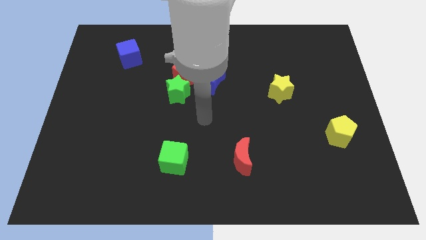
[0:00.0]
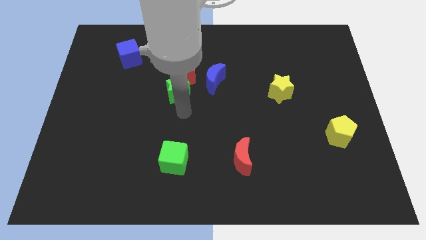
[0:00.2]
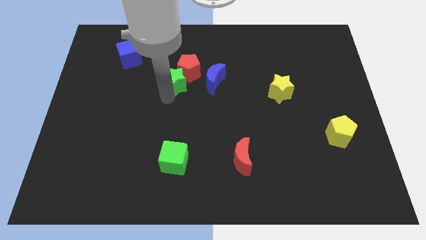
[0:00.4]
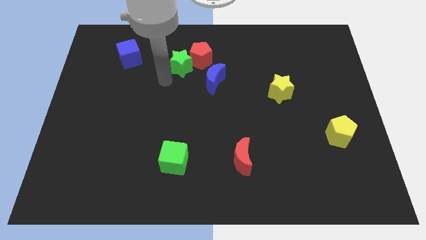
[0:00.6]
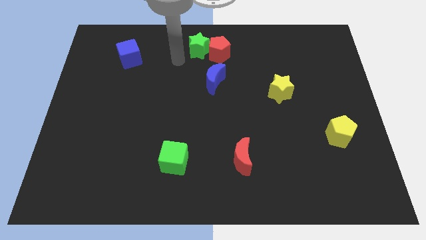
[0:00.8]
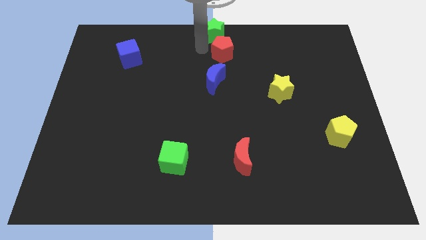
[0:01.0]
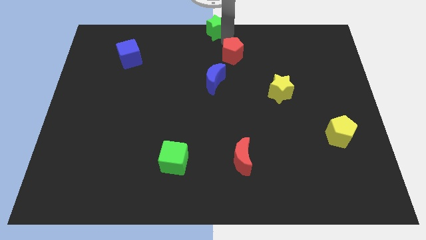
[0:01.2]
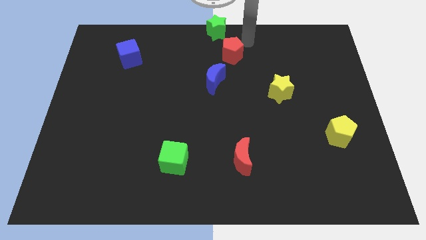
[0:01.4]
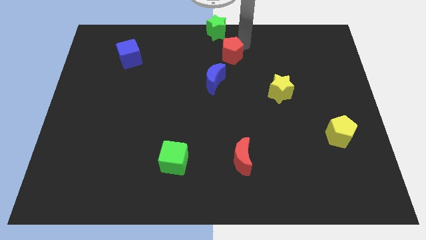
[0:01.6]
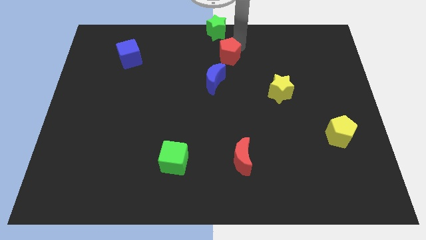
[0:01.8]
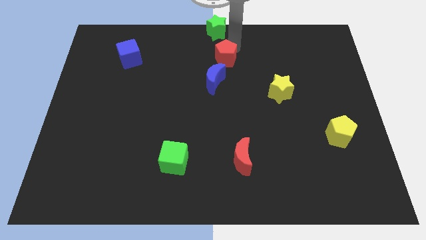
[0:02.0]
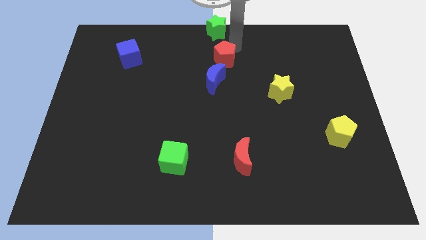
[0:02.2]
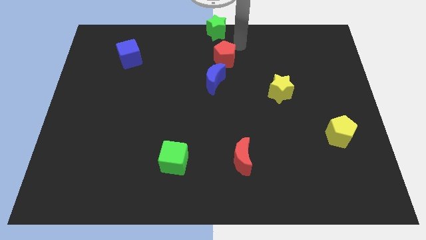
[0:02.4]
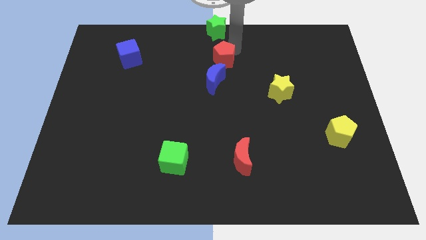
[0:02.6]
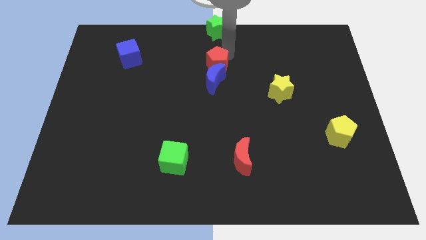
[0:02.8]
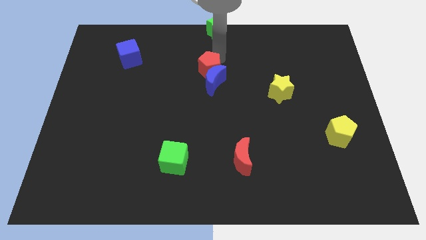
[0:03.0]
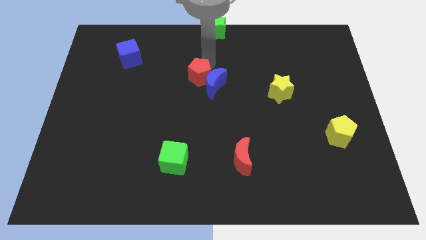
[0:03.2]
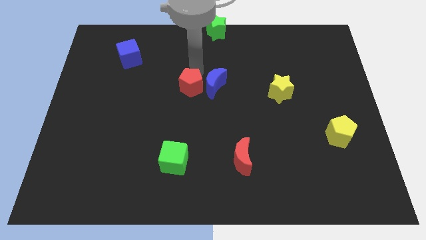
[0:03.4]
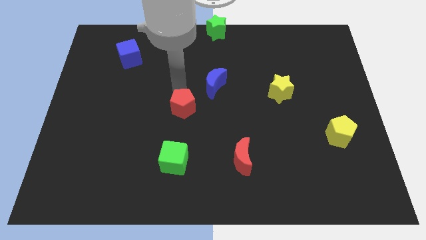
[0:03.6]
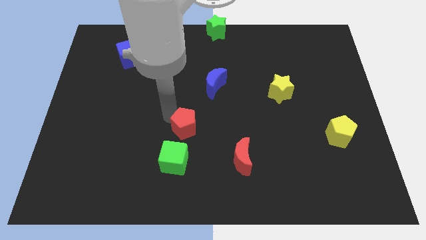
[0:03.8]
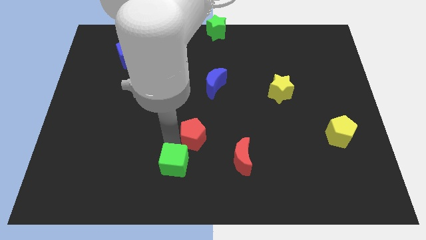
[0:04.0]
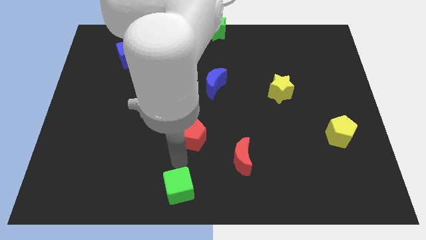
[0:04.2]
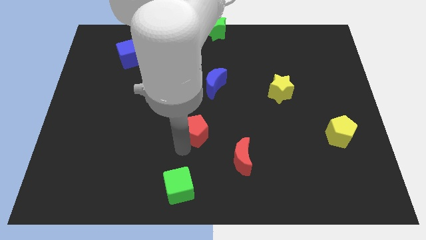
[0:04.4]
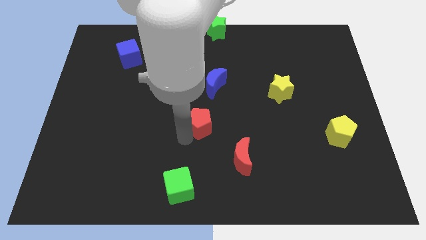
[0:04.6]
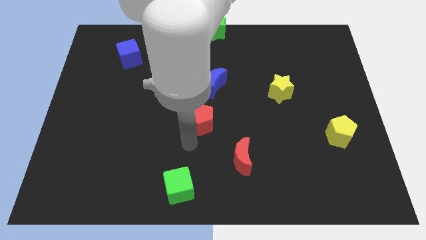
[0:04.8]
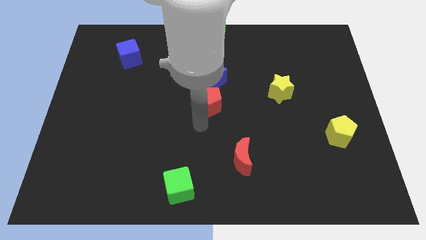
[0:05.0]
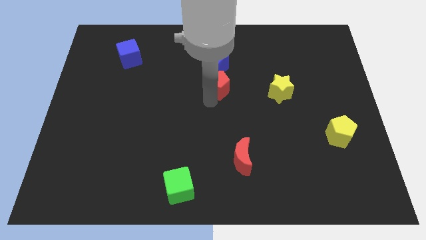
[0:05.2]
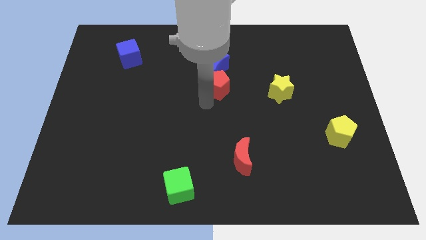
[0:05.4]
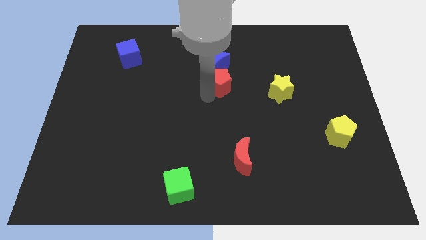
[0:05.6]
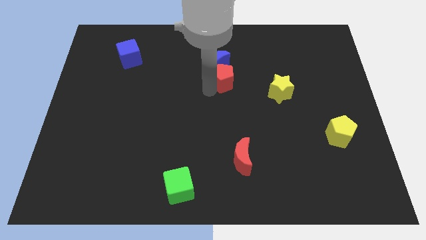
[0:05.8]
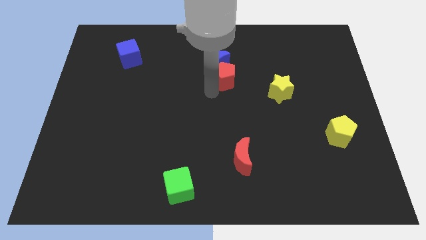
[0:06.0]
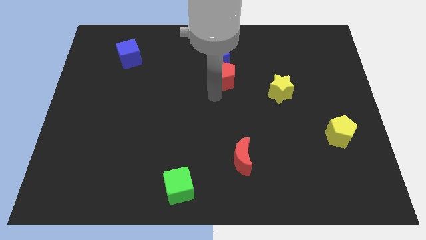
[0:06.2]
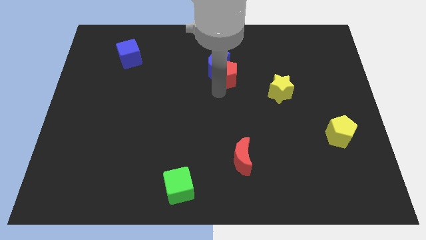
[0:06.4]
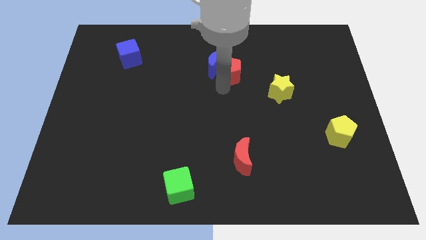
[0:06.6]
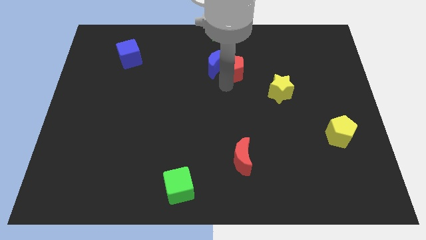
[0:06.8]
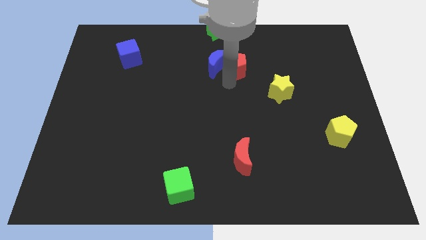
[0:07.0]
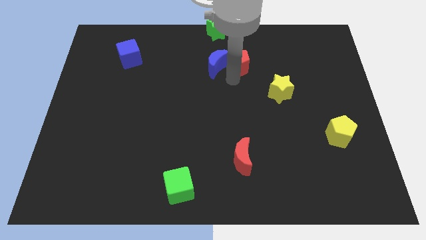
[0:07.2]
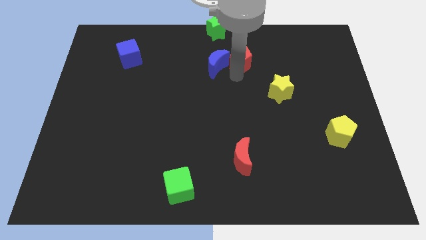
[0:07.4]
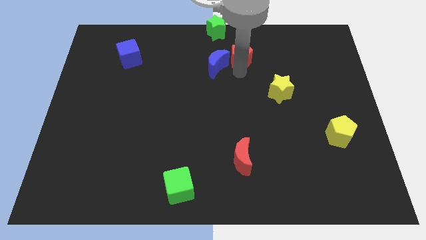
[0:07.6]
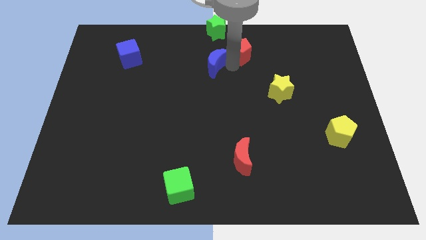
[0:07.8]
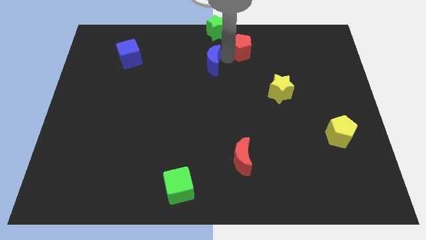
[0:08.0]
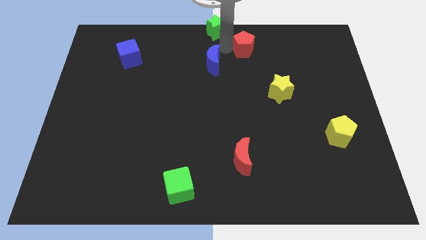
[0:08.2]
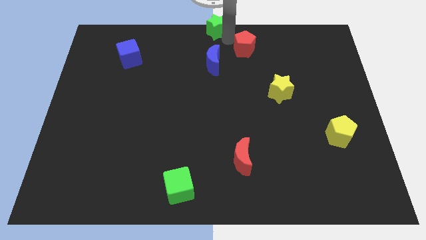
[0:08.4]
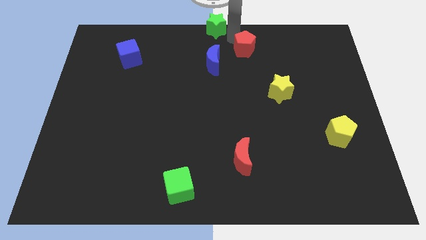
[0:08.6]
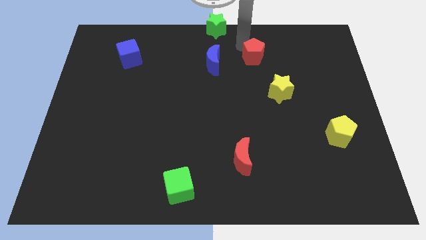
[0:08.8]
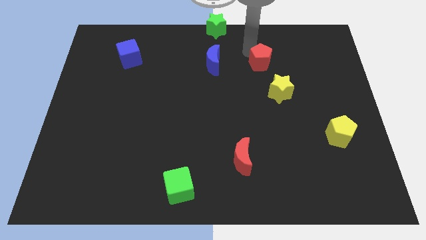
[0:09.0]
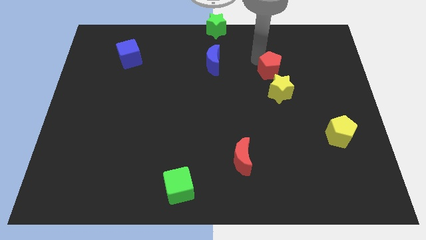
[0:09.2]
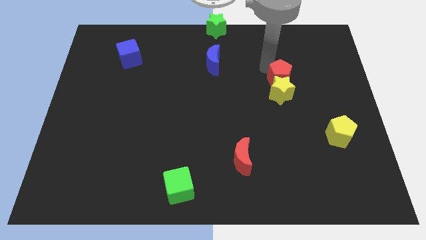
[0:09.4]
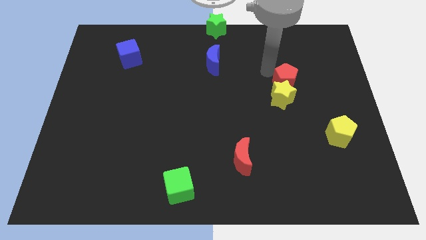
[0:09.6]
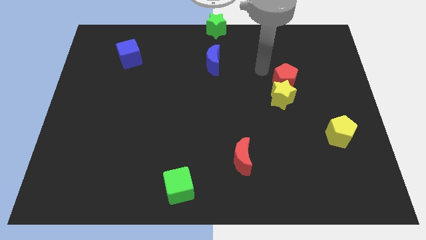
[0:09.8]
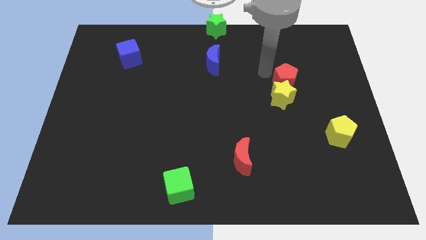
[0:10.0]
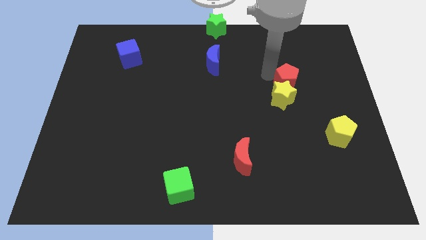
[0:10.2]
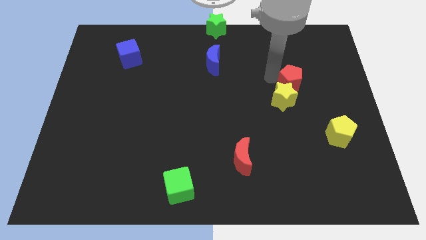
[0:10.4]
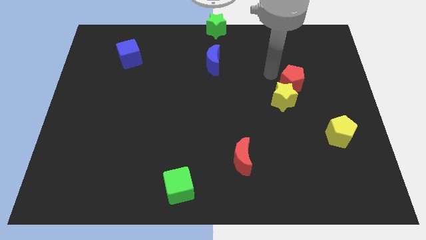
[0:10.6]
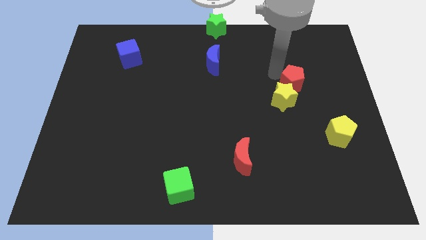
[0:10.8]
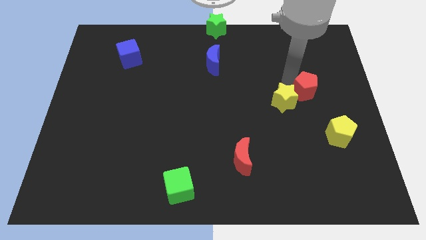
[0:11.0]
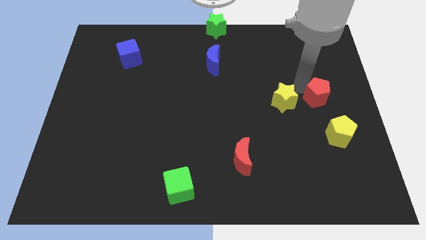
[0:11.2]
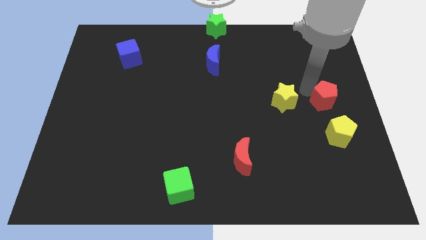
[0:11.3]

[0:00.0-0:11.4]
slide the red pentagon to the right side
